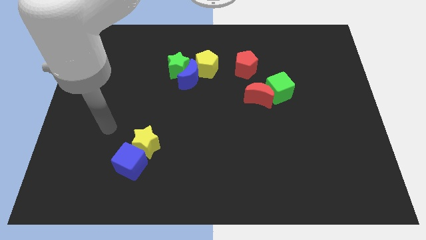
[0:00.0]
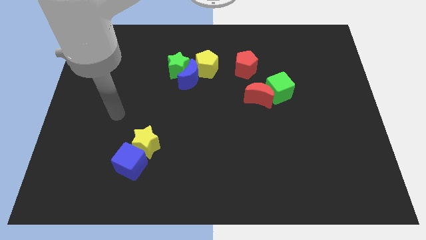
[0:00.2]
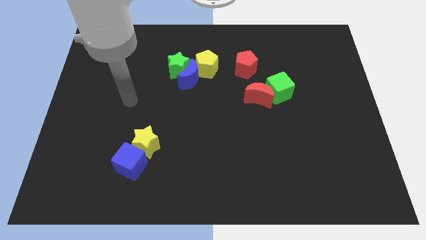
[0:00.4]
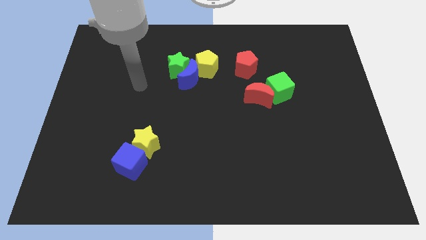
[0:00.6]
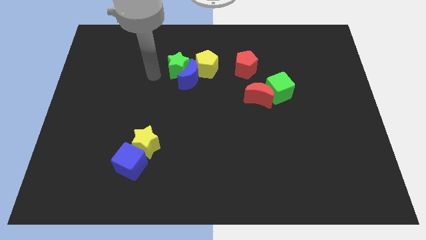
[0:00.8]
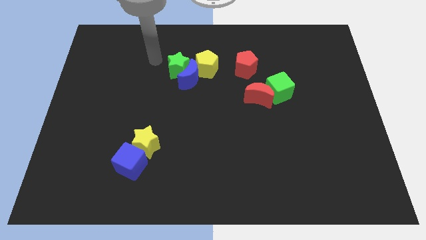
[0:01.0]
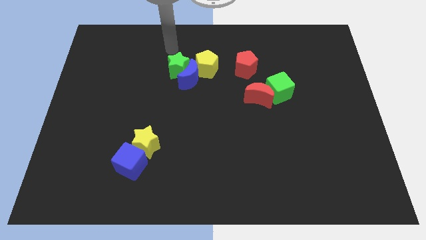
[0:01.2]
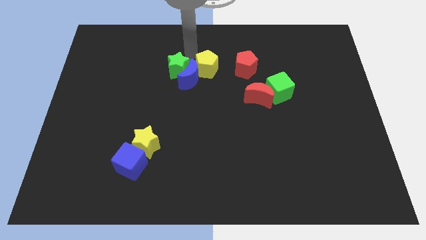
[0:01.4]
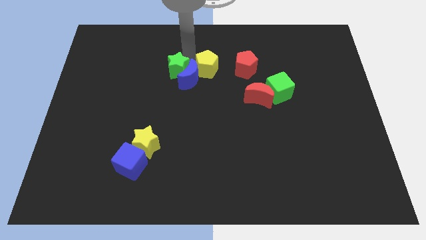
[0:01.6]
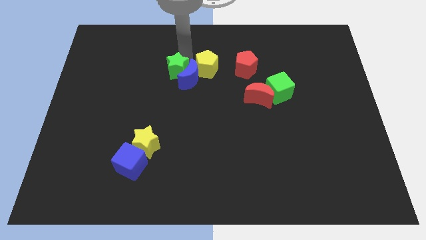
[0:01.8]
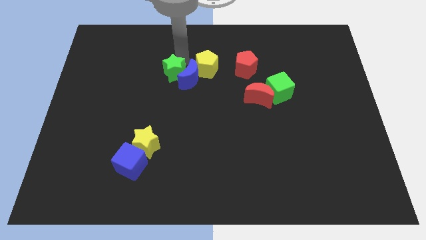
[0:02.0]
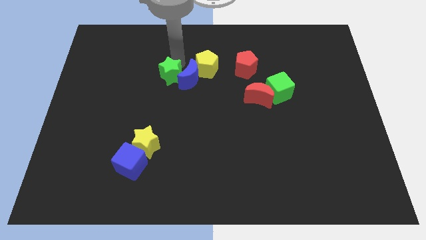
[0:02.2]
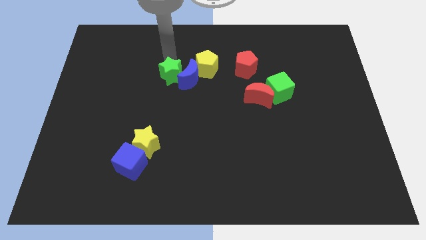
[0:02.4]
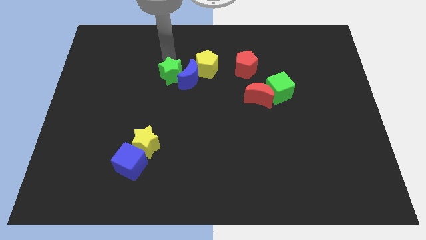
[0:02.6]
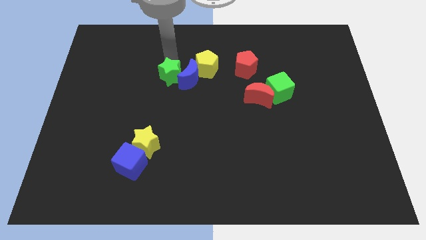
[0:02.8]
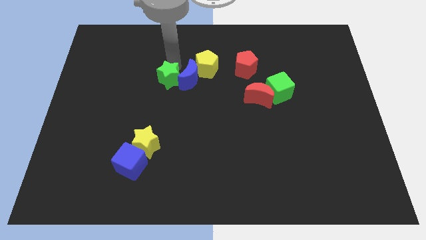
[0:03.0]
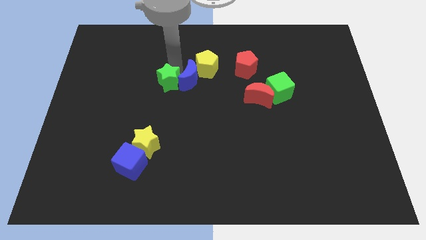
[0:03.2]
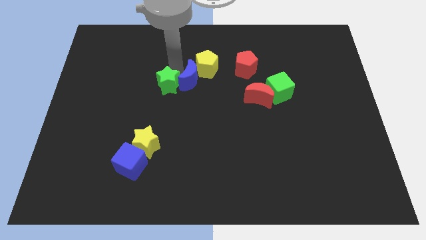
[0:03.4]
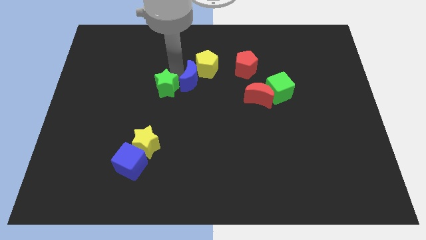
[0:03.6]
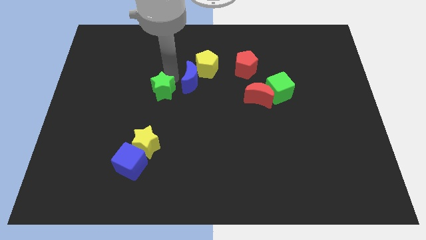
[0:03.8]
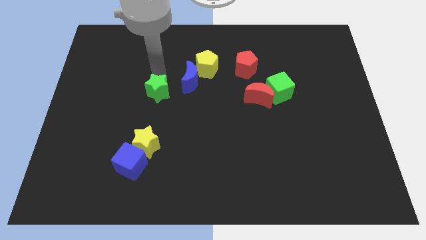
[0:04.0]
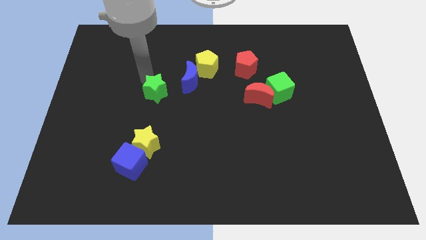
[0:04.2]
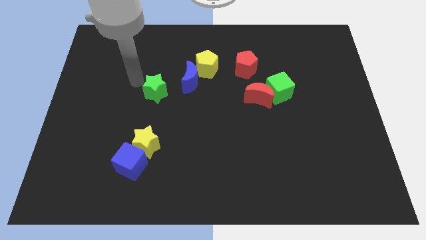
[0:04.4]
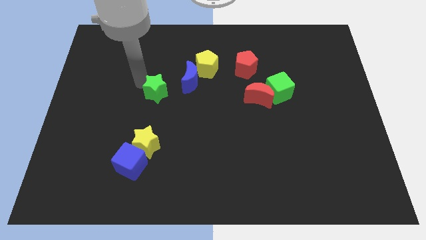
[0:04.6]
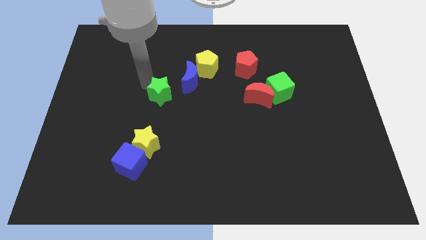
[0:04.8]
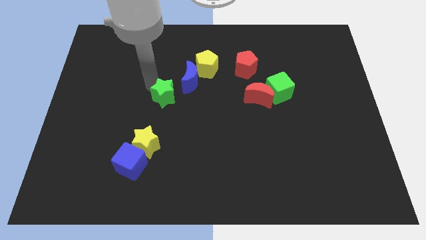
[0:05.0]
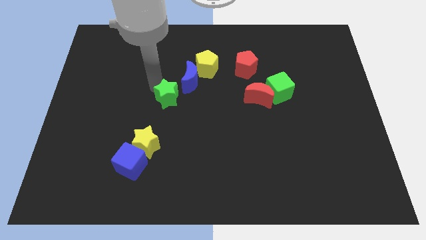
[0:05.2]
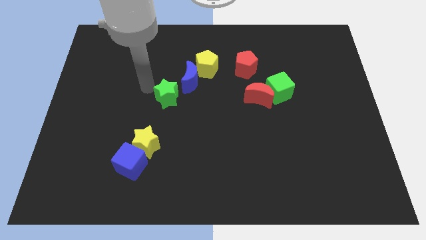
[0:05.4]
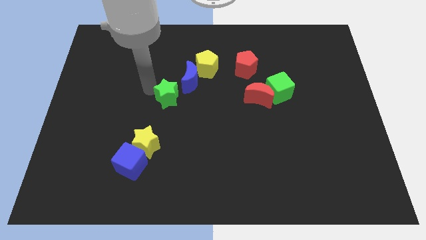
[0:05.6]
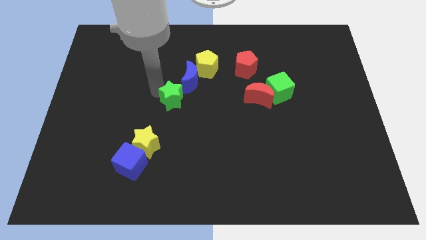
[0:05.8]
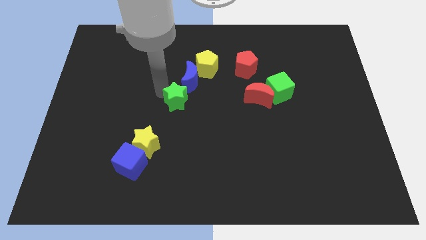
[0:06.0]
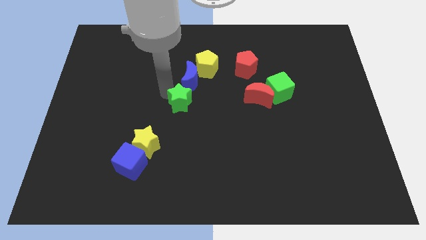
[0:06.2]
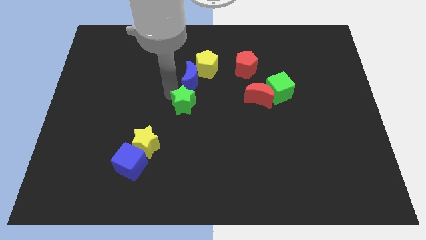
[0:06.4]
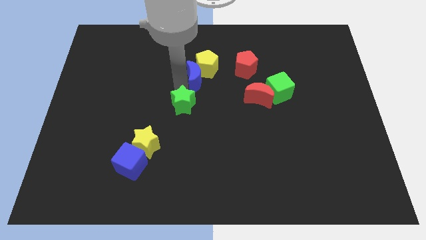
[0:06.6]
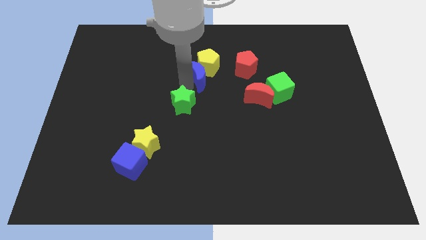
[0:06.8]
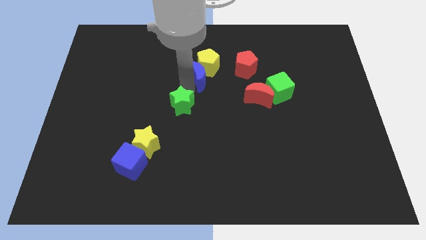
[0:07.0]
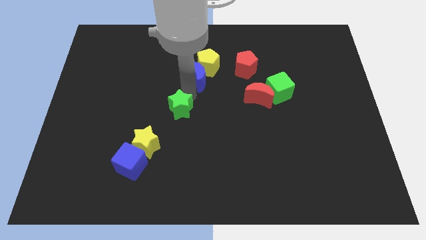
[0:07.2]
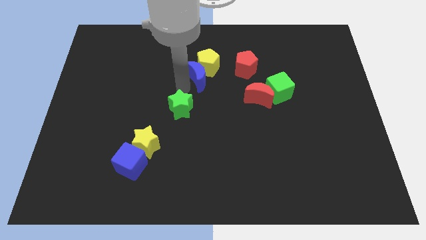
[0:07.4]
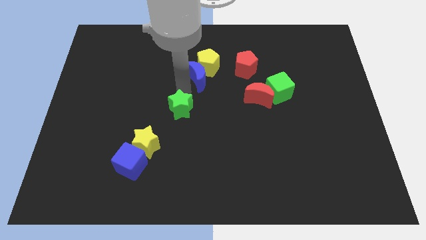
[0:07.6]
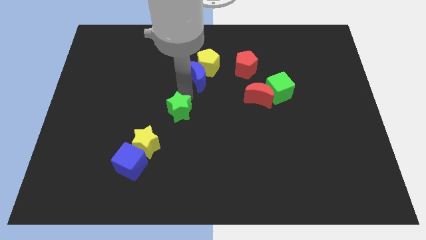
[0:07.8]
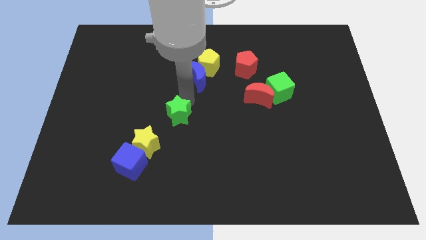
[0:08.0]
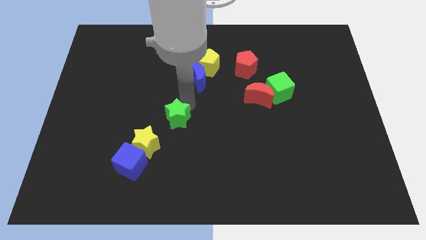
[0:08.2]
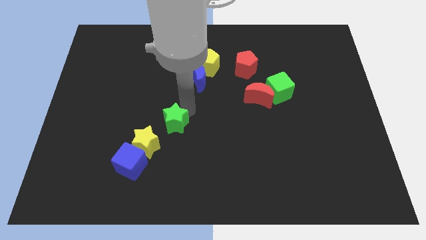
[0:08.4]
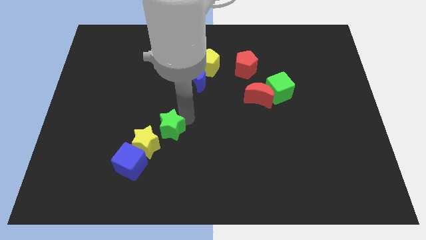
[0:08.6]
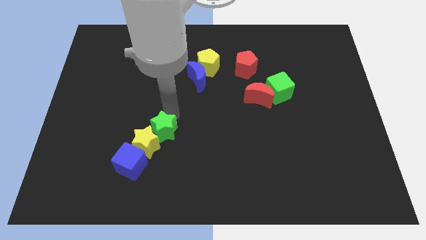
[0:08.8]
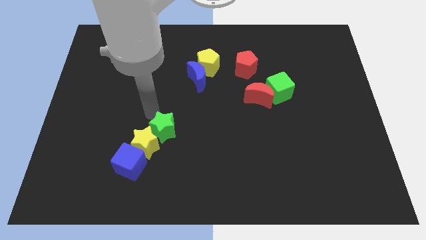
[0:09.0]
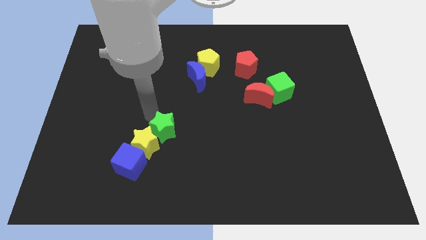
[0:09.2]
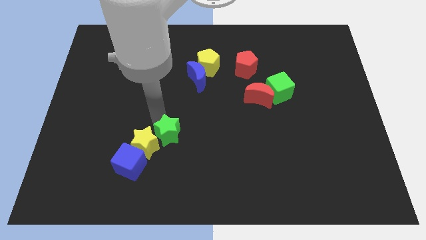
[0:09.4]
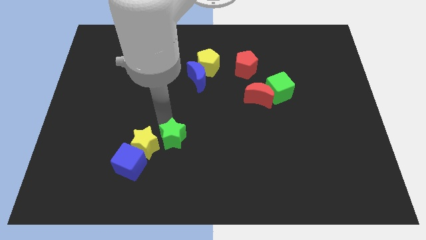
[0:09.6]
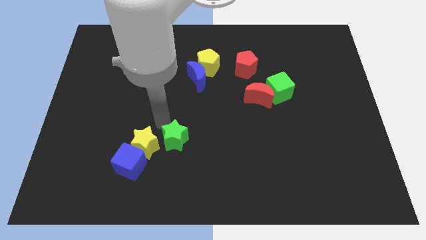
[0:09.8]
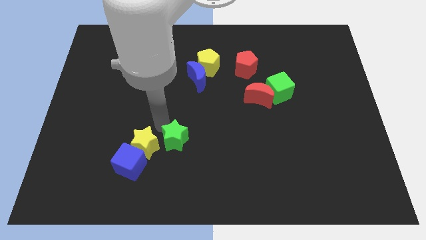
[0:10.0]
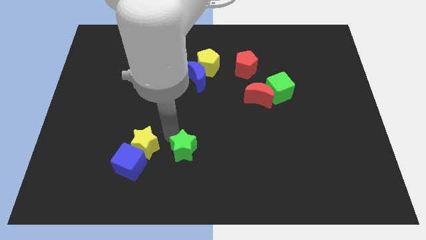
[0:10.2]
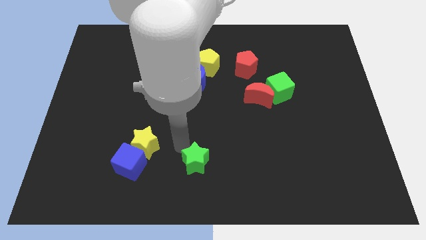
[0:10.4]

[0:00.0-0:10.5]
move the green star to the bottom side

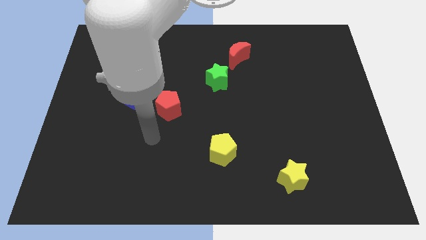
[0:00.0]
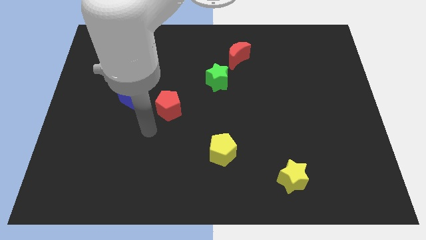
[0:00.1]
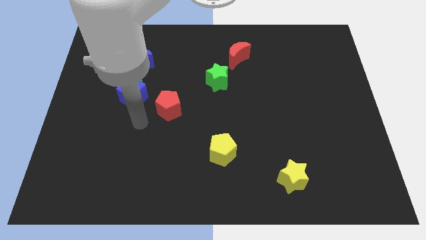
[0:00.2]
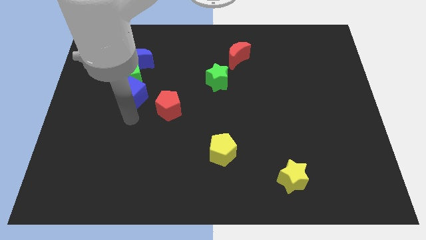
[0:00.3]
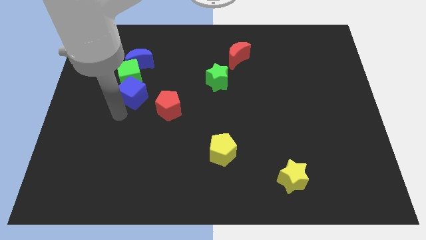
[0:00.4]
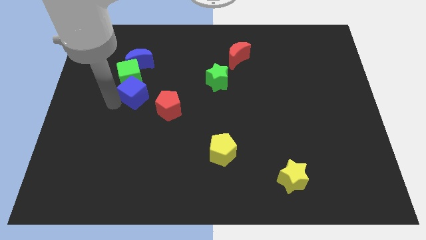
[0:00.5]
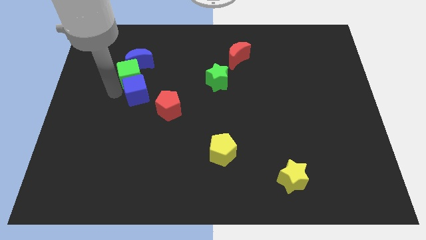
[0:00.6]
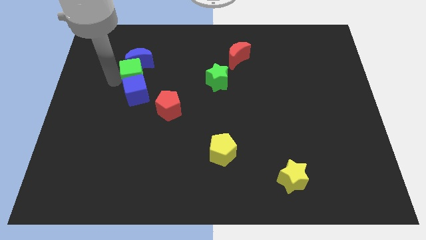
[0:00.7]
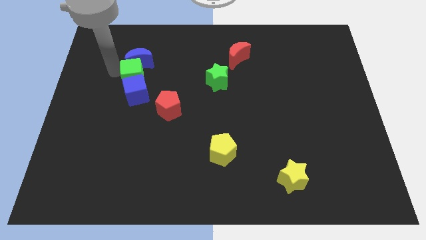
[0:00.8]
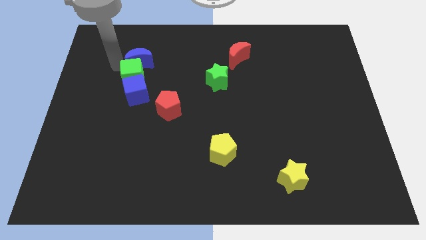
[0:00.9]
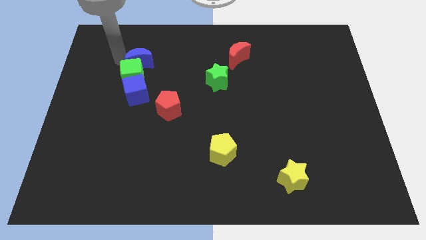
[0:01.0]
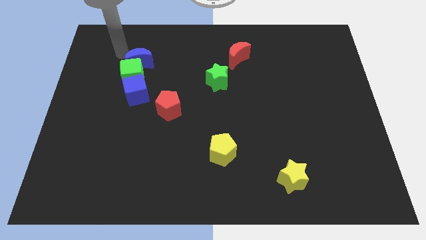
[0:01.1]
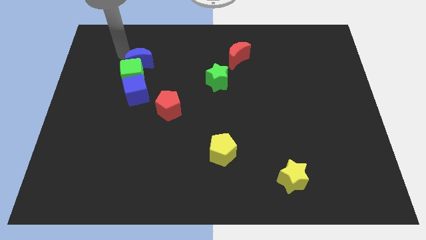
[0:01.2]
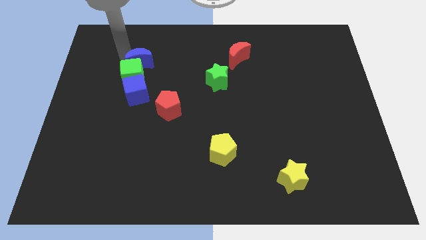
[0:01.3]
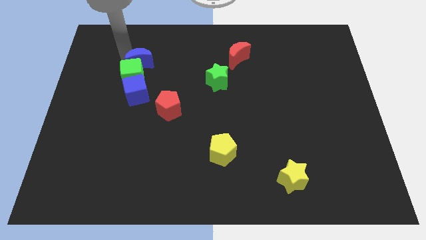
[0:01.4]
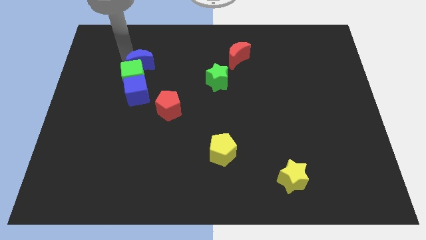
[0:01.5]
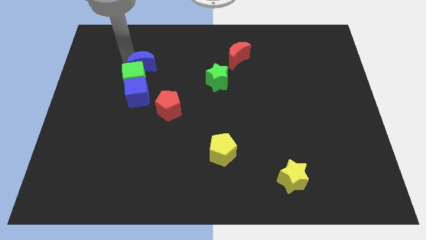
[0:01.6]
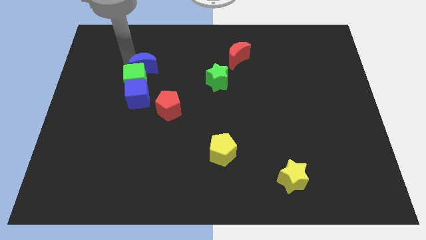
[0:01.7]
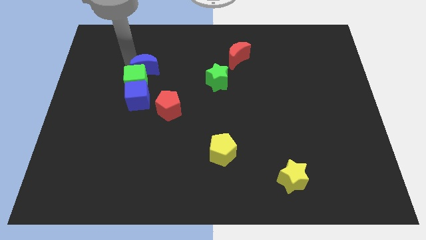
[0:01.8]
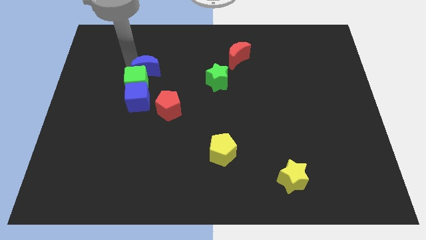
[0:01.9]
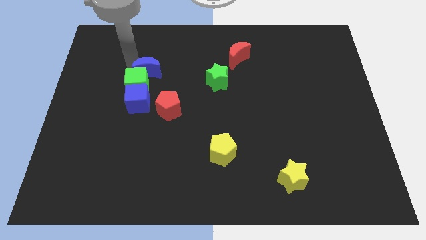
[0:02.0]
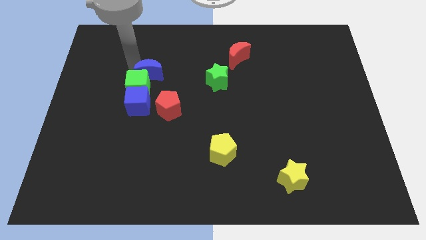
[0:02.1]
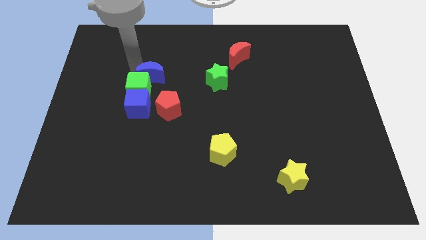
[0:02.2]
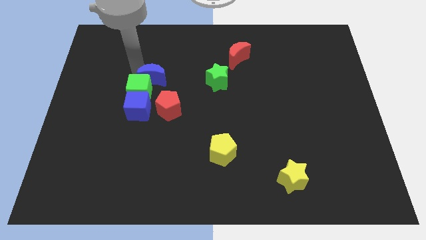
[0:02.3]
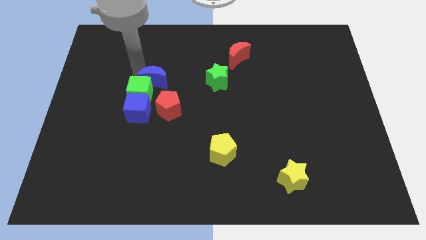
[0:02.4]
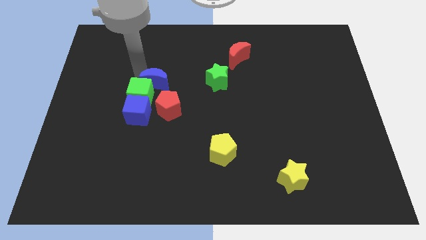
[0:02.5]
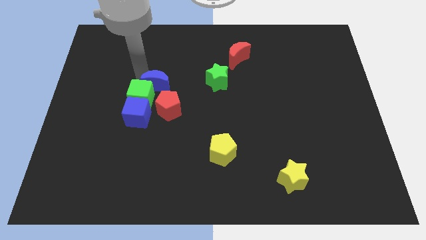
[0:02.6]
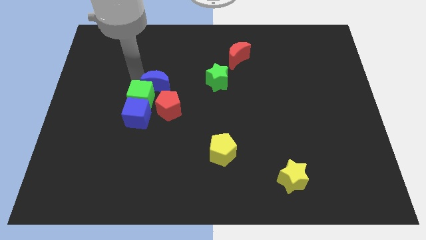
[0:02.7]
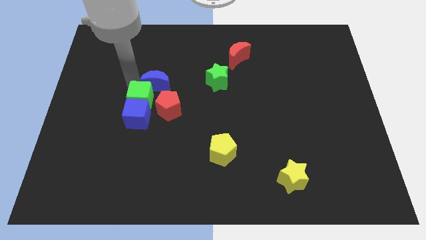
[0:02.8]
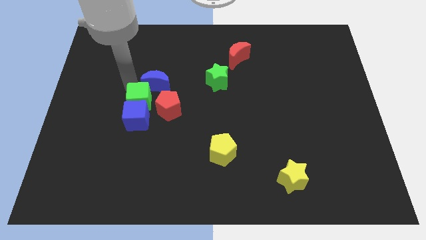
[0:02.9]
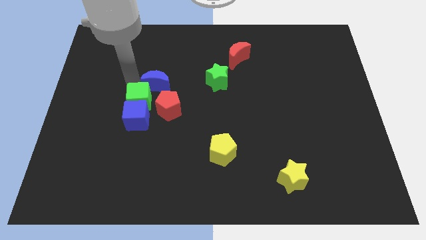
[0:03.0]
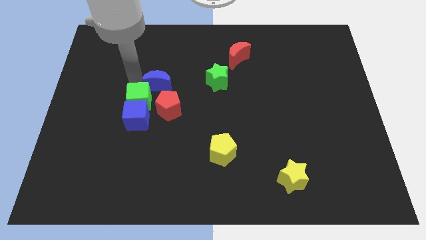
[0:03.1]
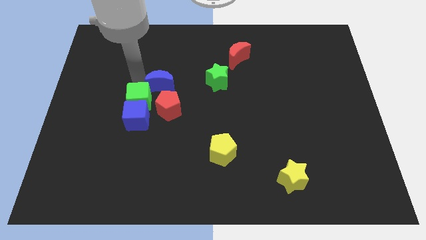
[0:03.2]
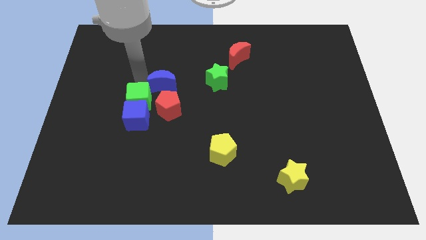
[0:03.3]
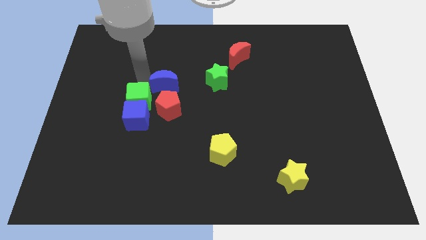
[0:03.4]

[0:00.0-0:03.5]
put the blue moon to the center
